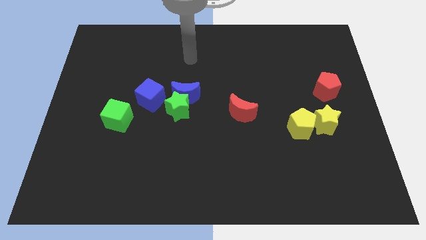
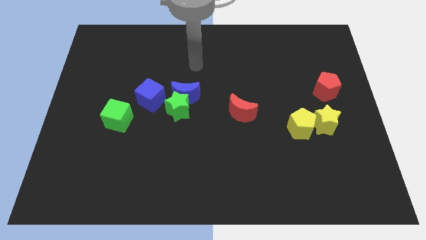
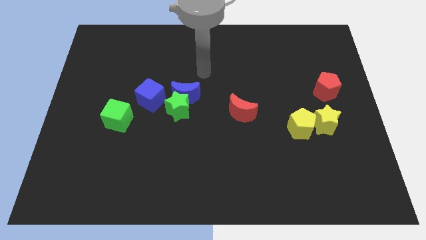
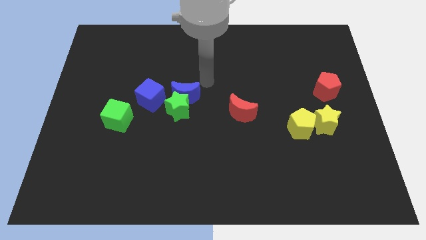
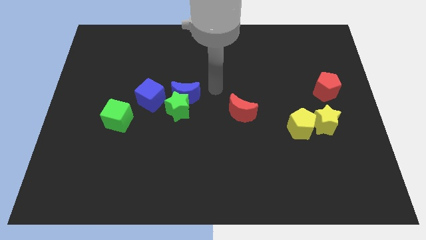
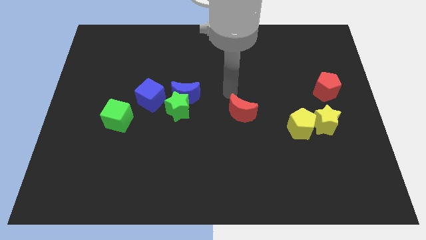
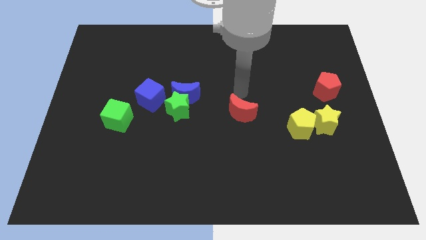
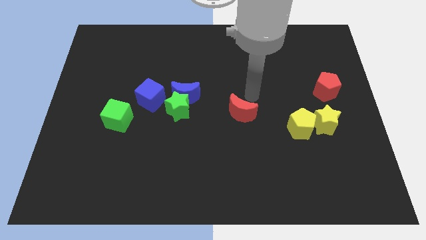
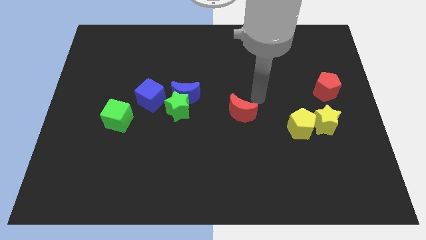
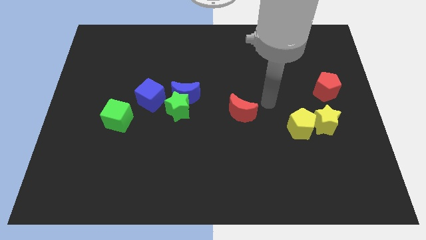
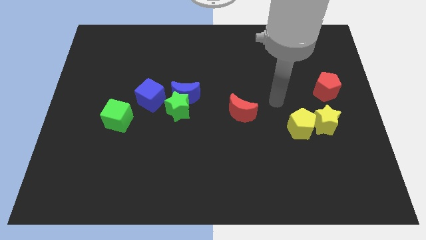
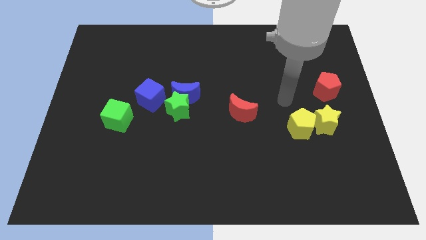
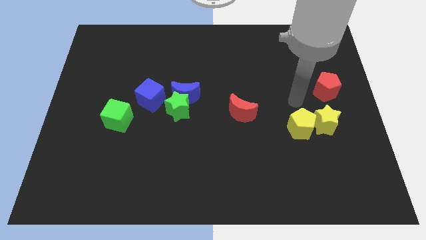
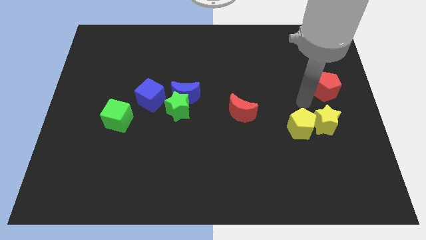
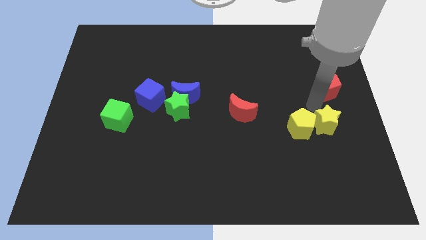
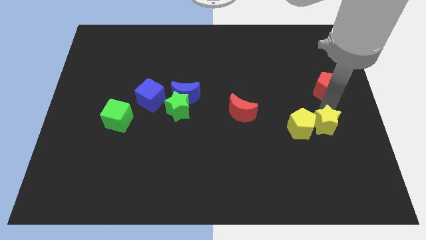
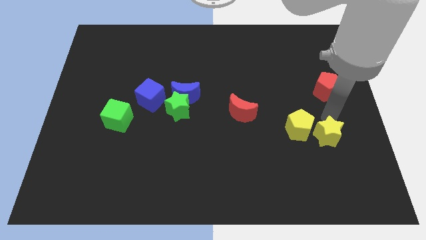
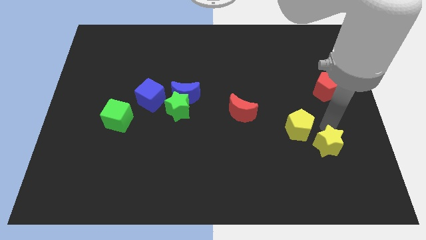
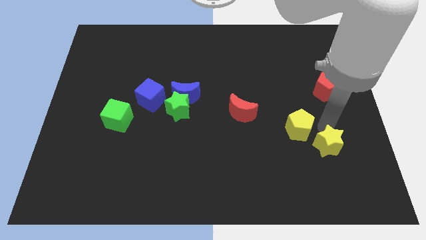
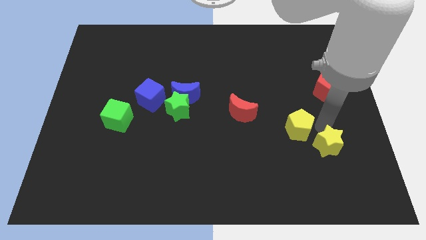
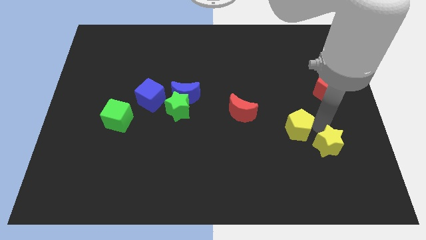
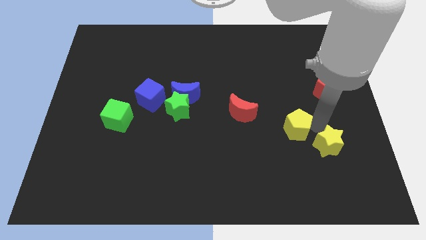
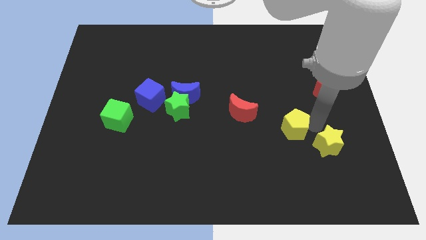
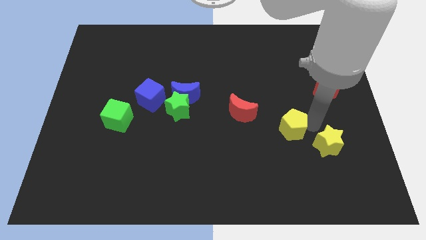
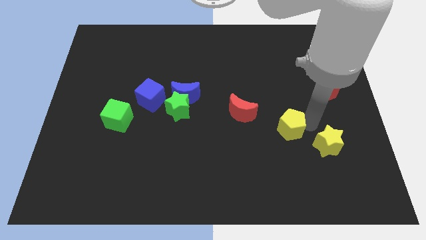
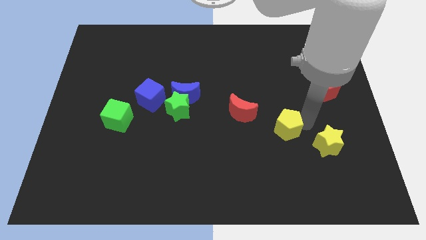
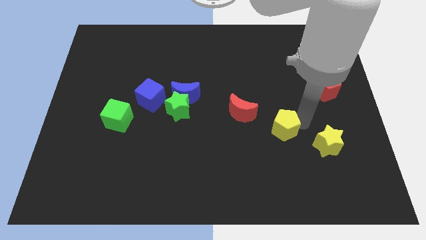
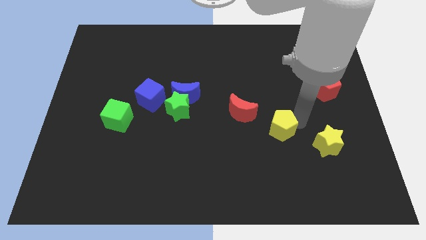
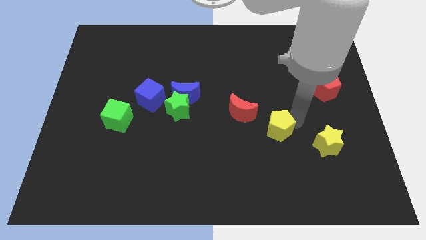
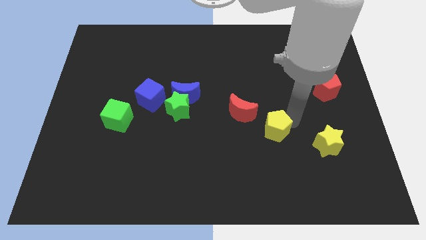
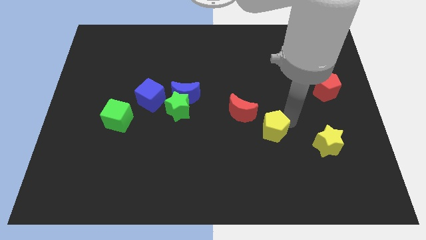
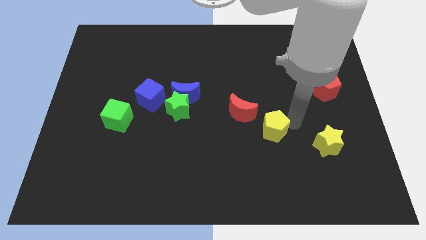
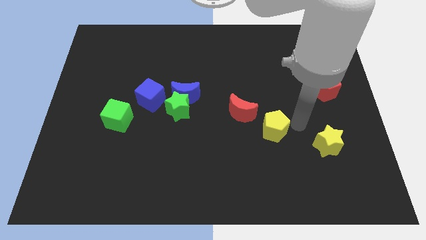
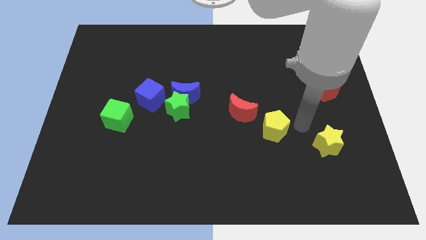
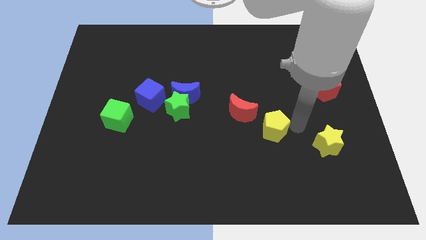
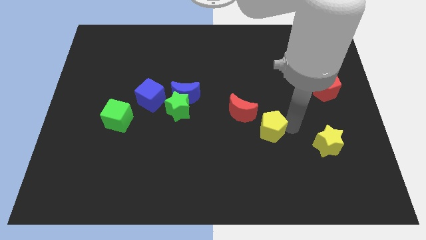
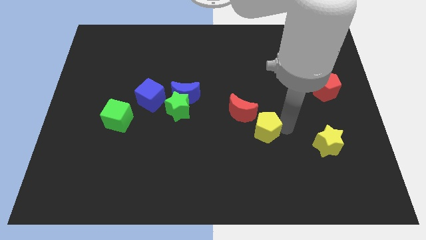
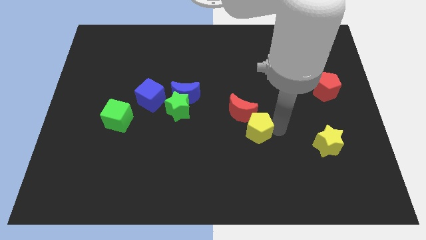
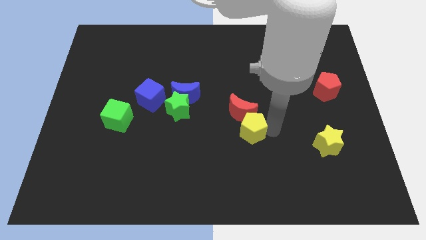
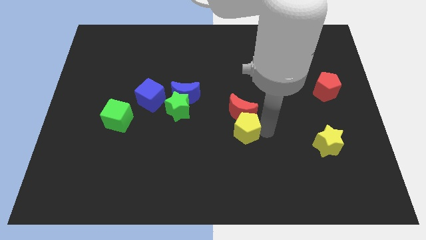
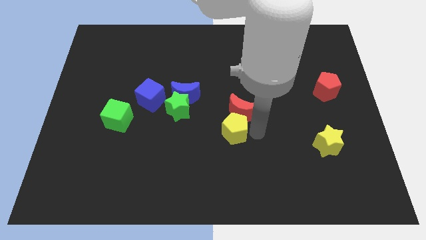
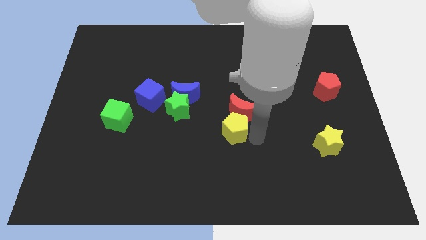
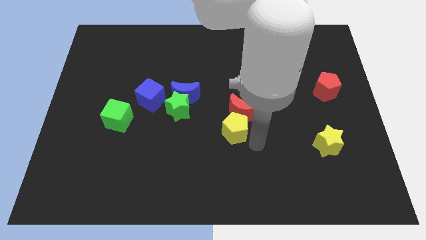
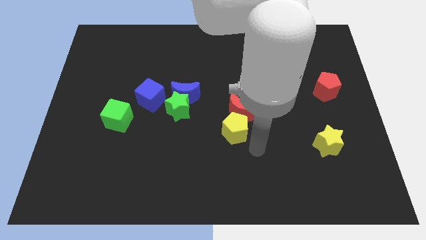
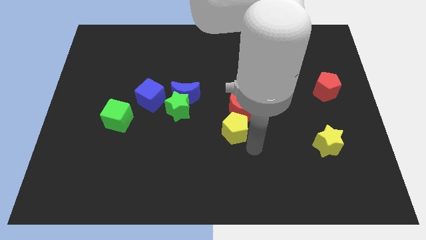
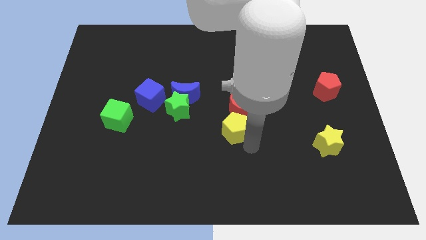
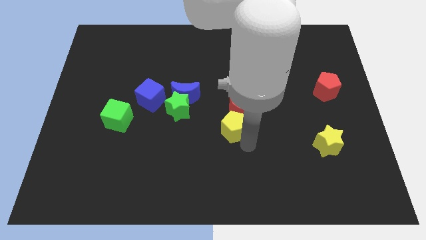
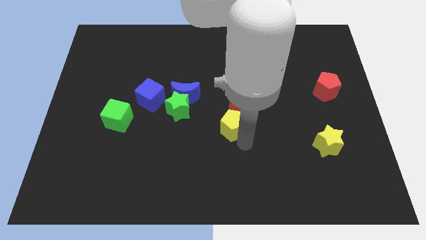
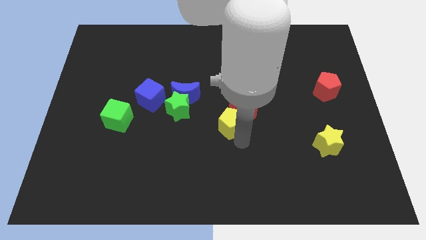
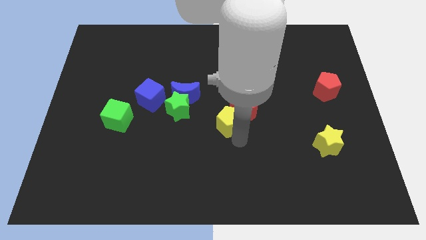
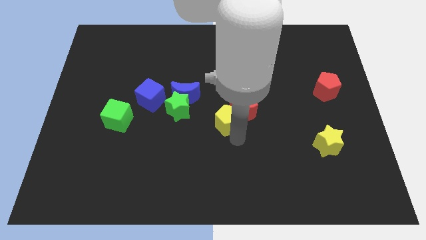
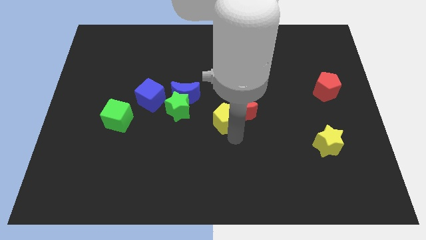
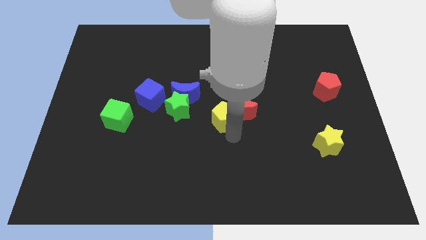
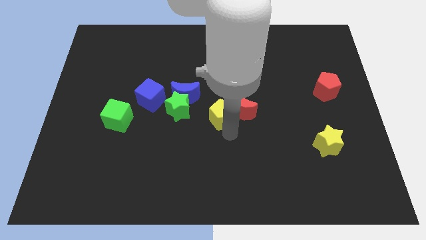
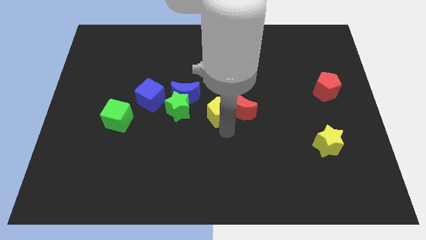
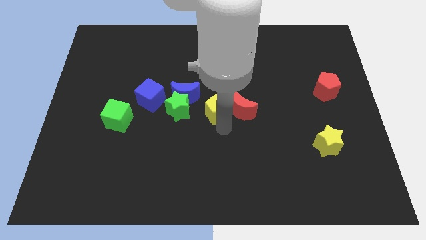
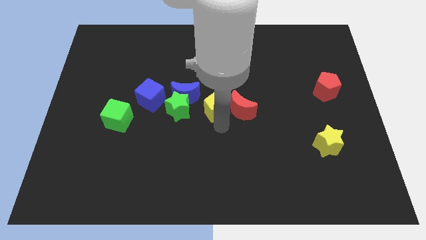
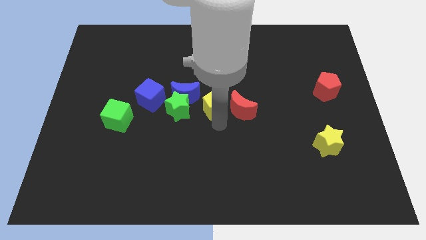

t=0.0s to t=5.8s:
slide the yellow pentagon right of the blue cube

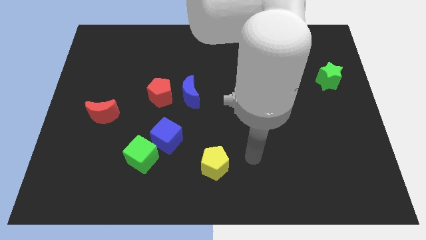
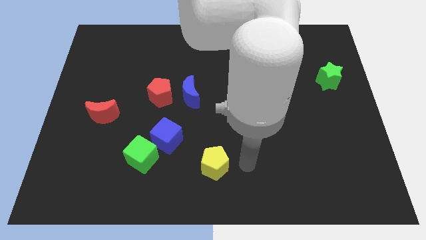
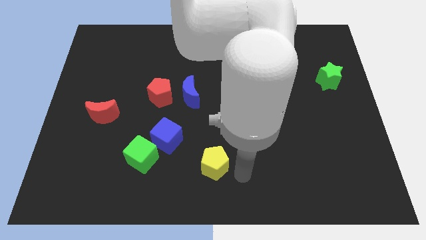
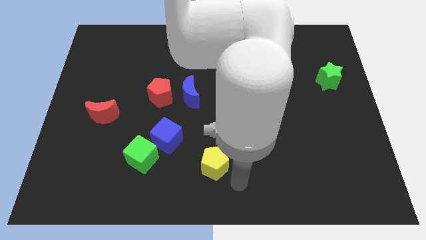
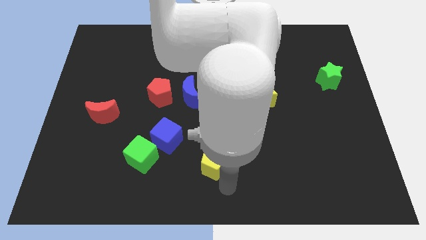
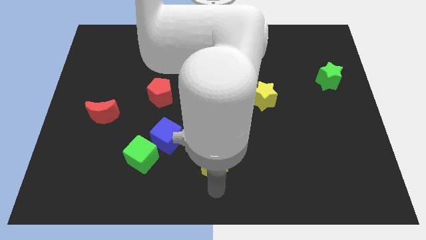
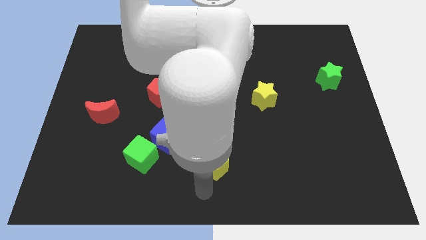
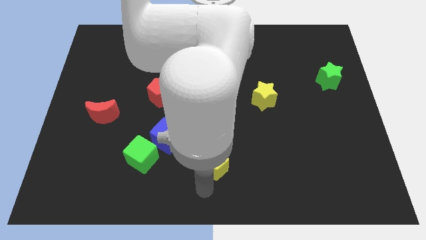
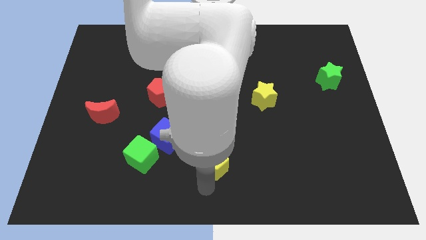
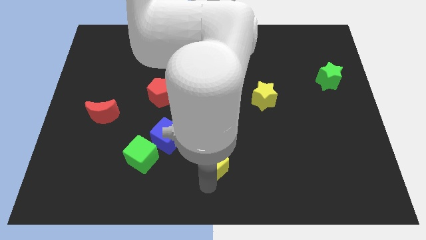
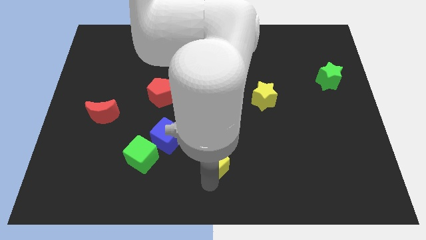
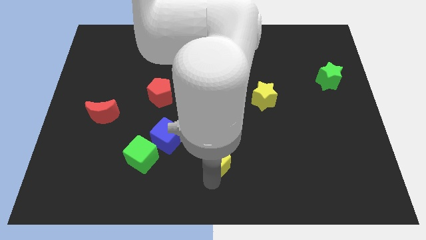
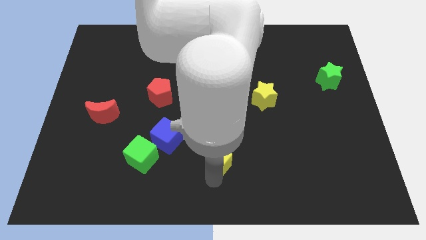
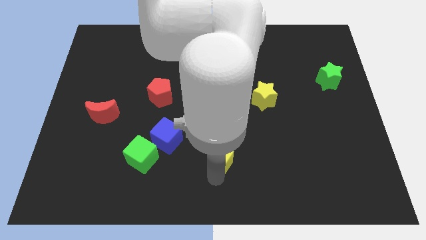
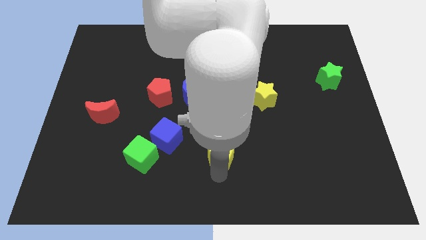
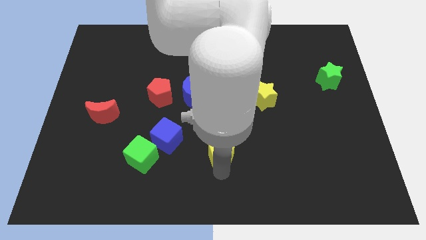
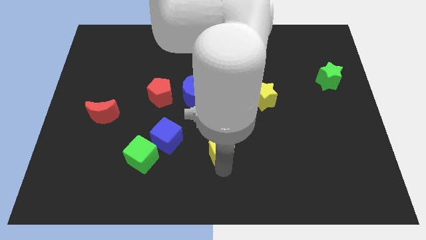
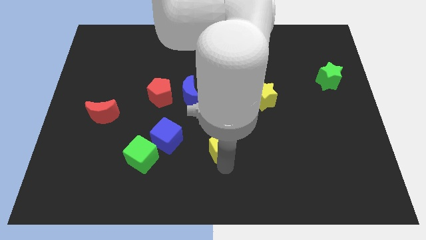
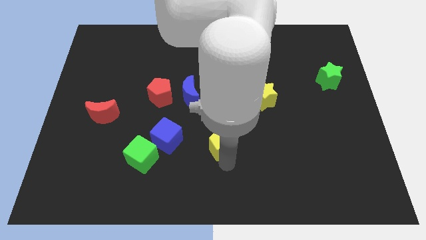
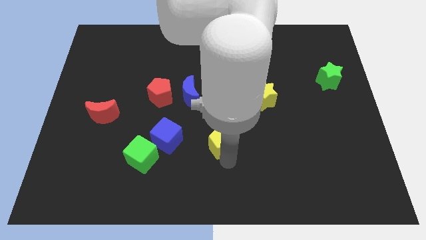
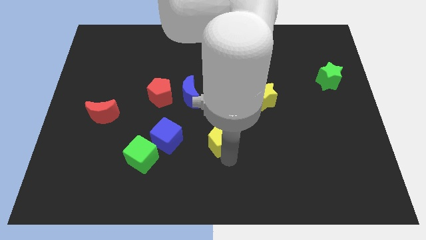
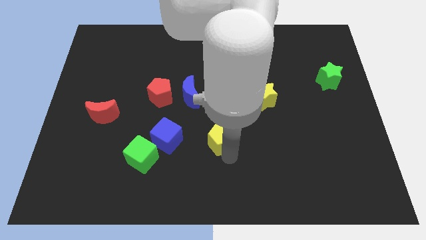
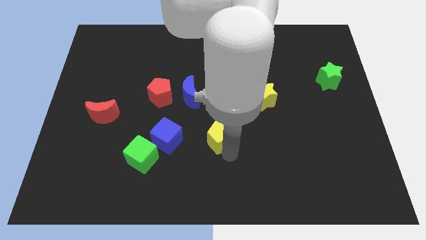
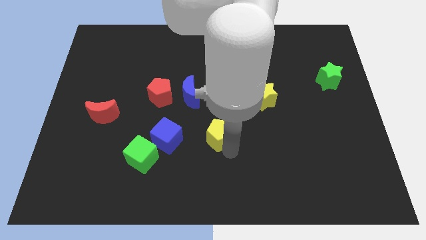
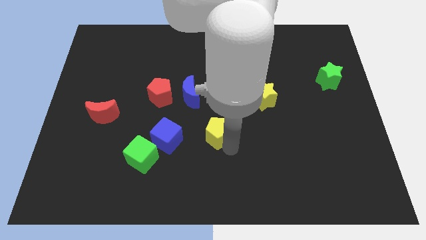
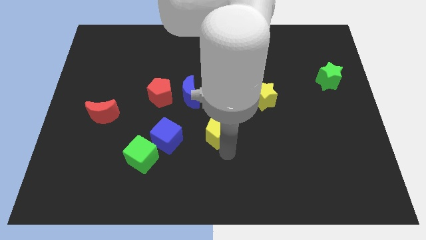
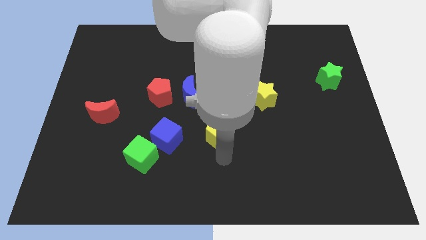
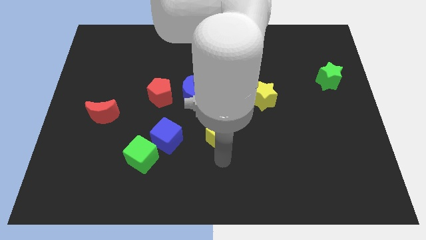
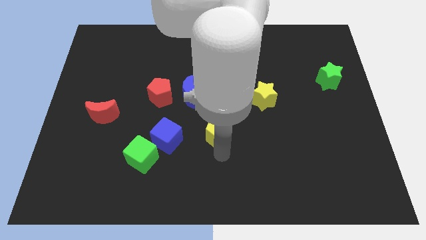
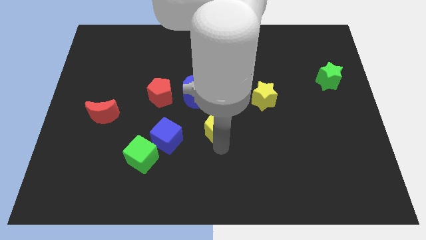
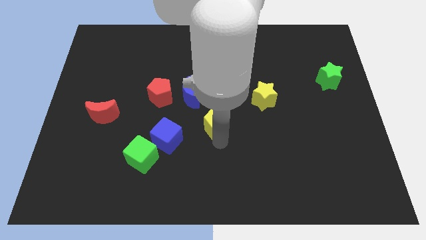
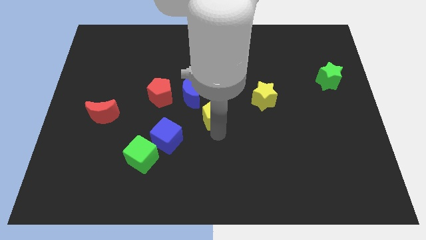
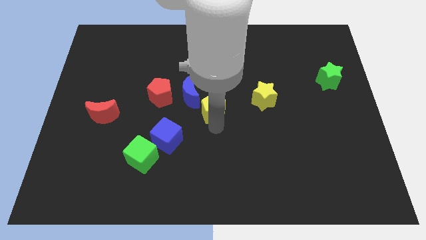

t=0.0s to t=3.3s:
move the yellow pentagon just left of the yellow star
